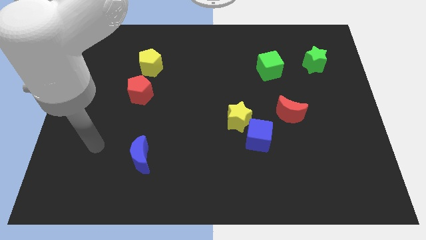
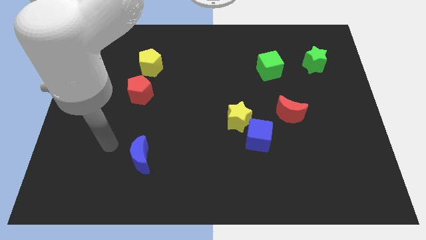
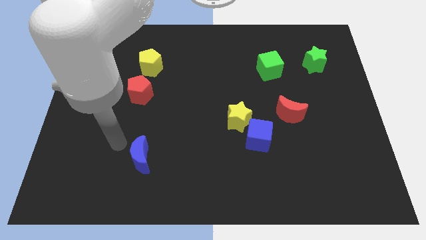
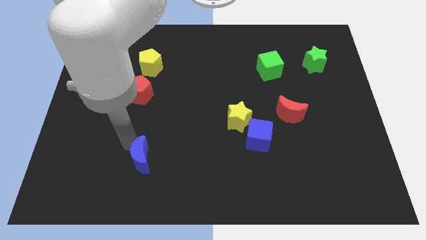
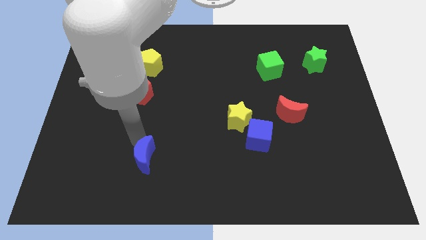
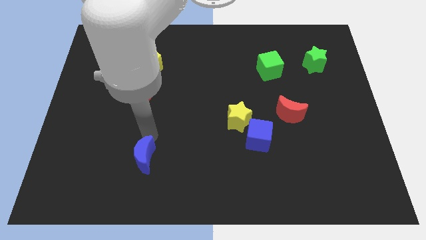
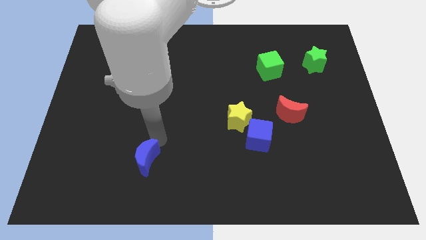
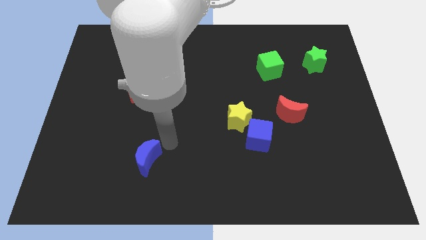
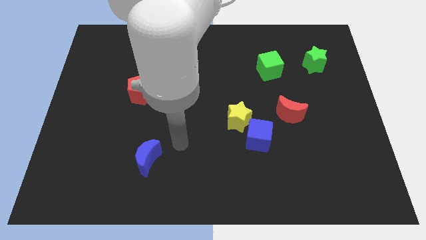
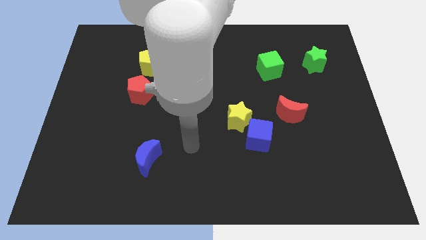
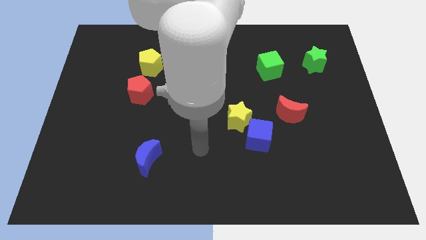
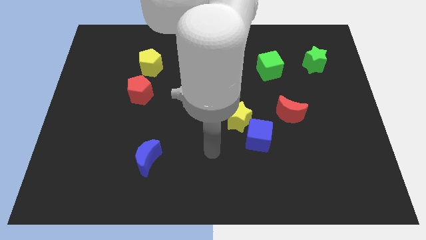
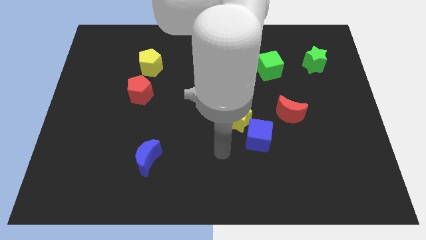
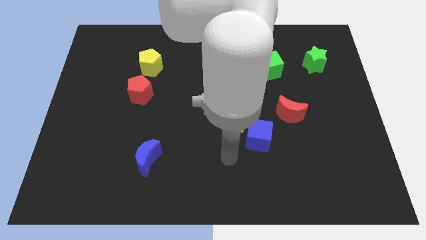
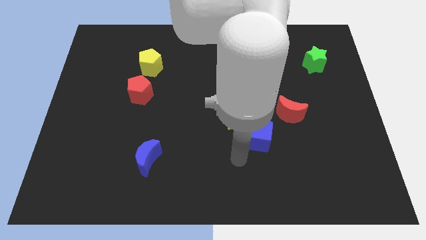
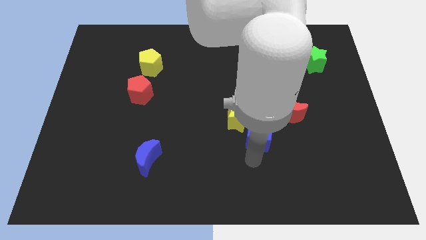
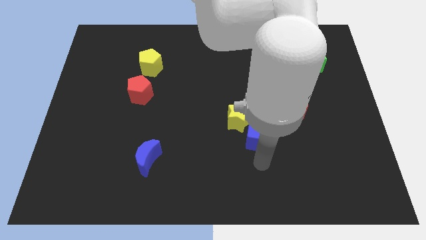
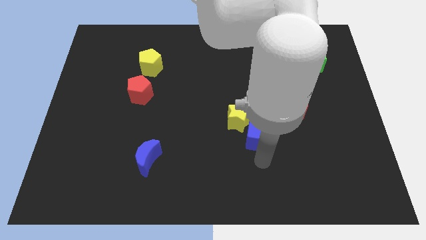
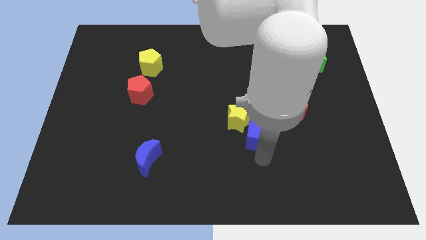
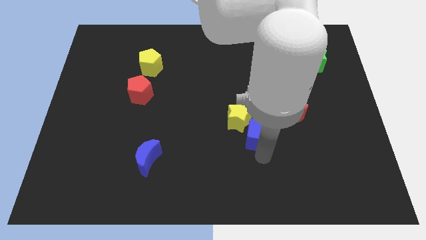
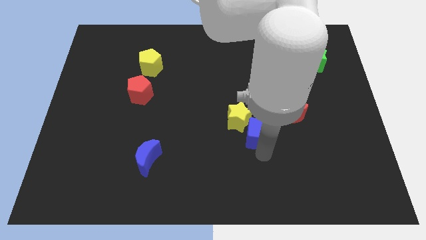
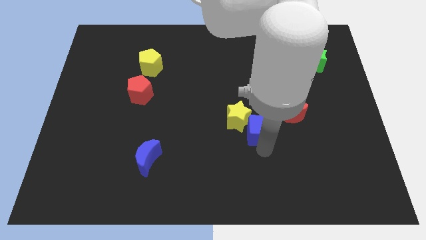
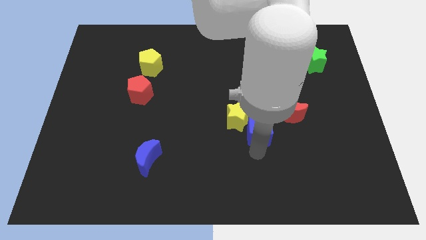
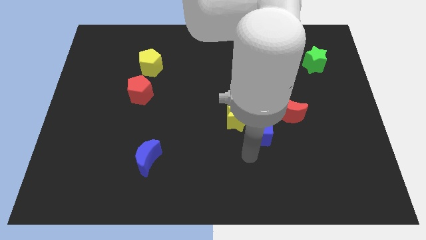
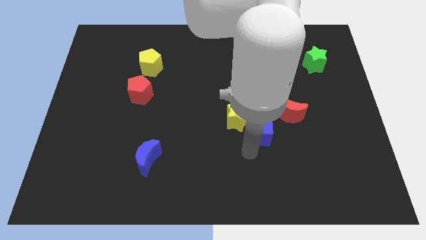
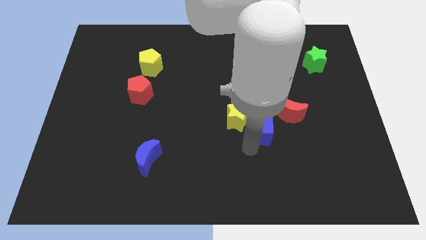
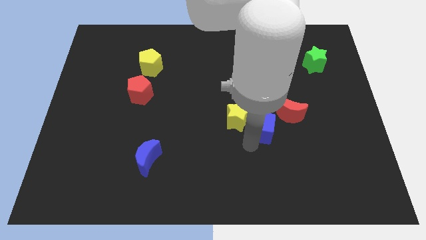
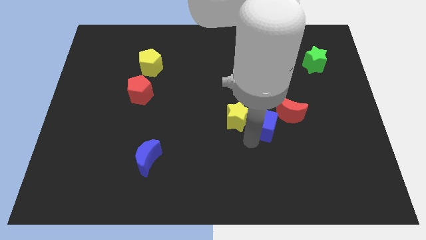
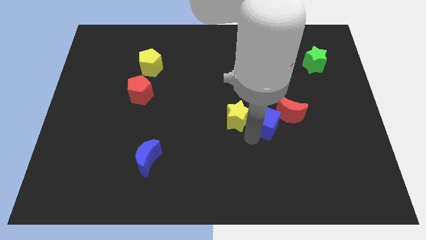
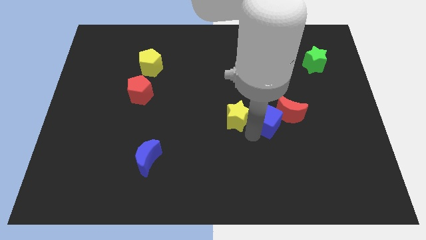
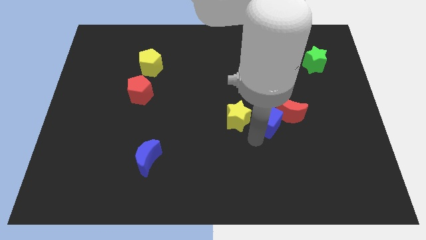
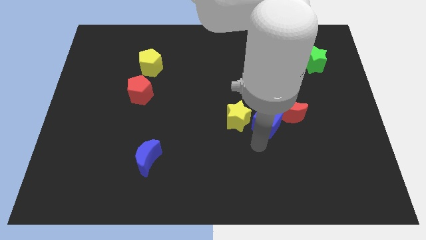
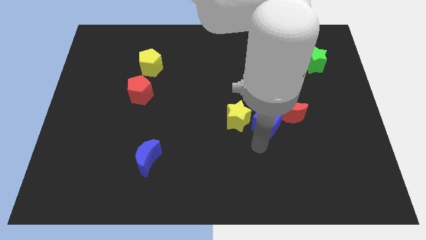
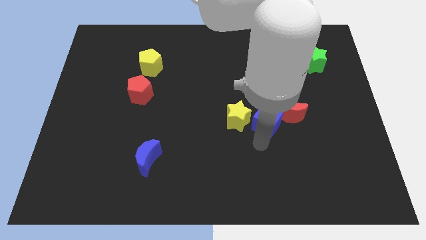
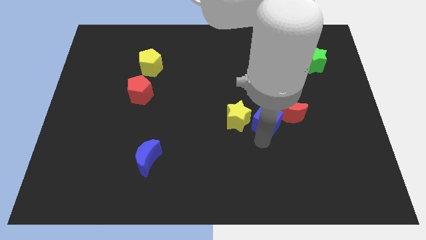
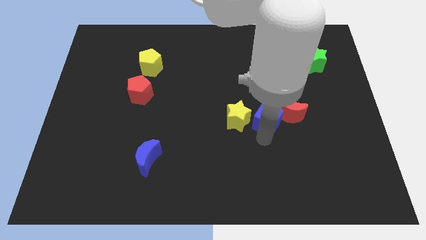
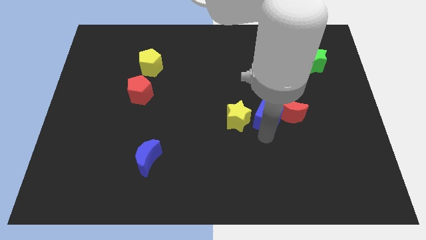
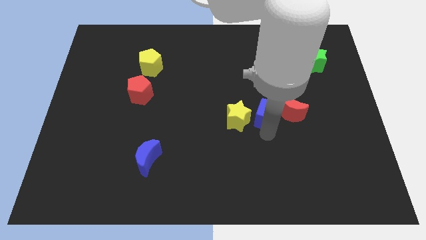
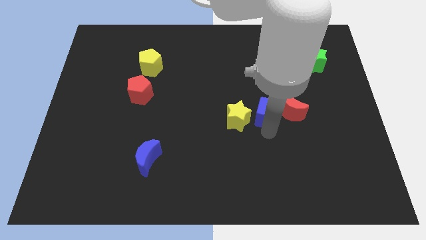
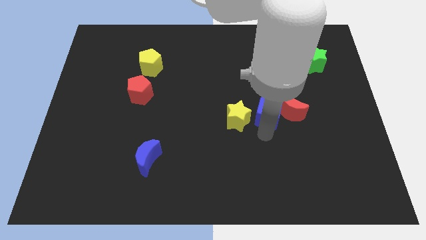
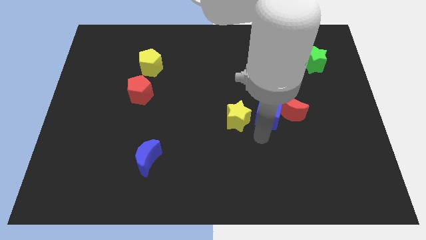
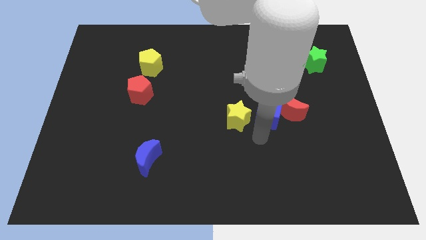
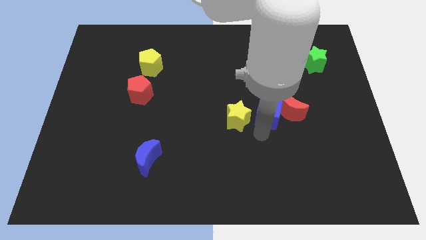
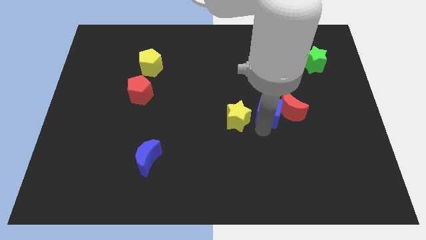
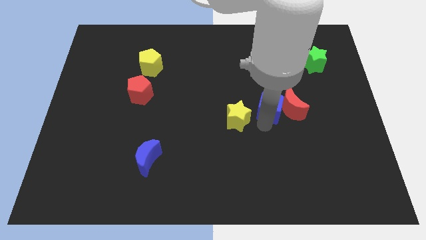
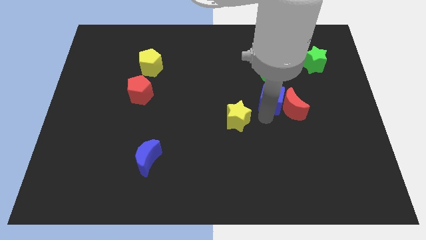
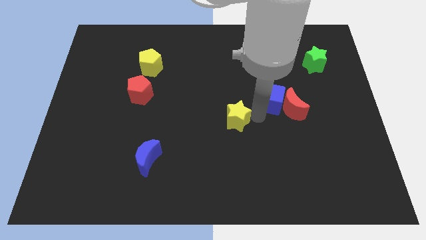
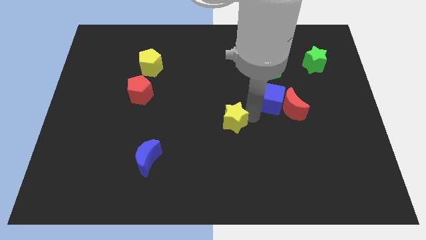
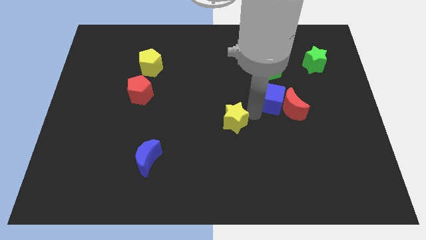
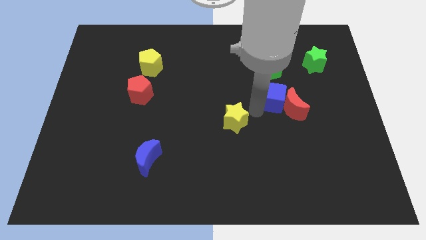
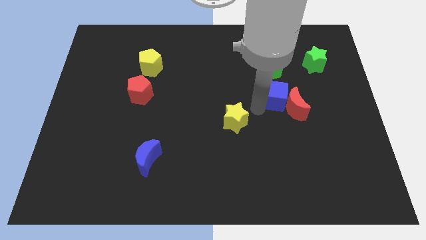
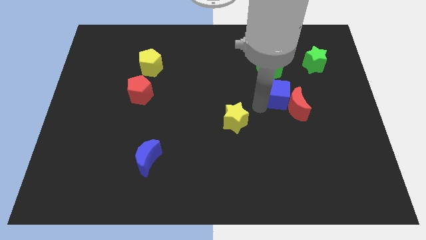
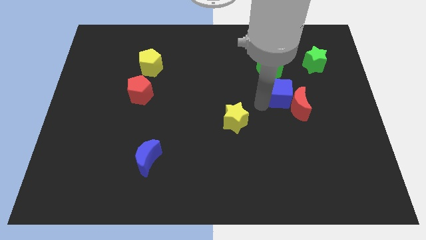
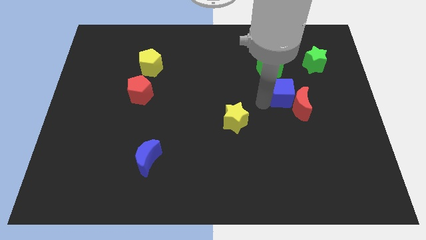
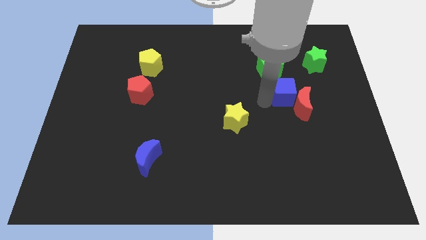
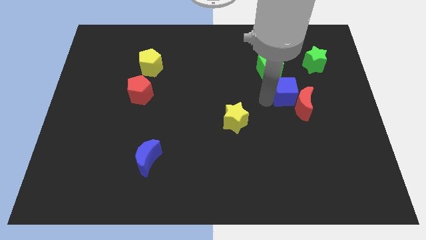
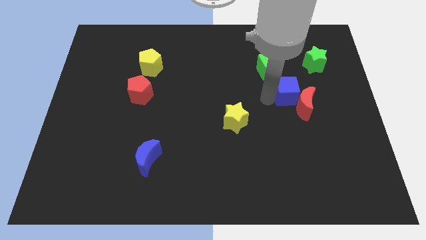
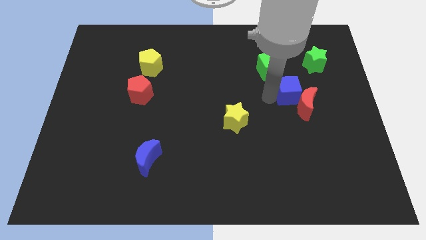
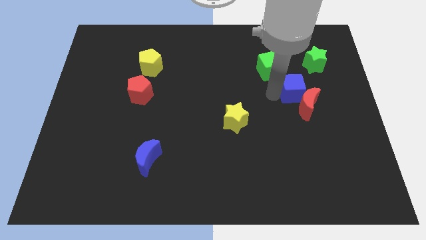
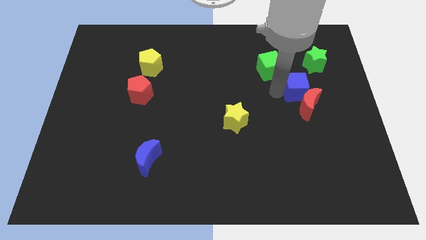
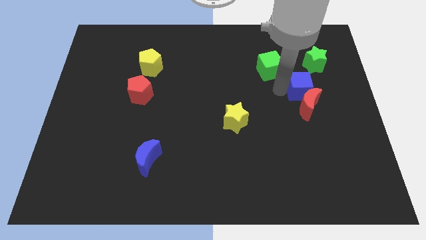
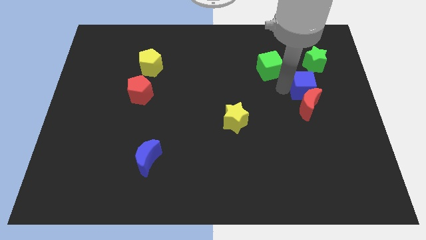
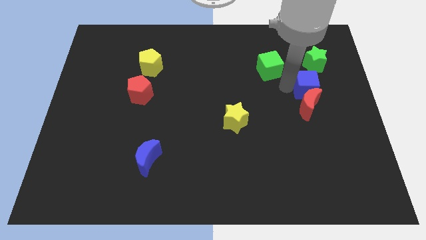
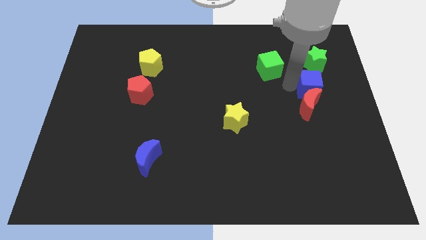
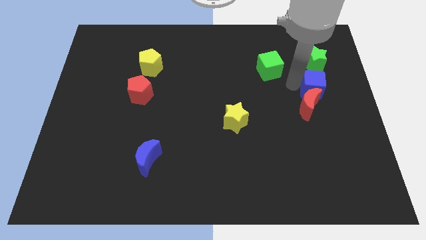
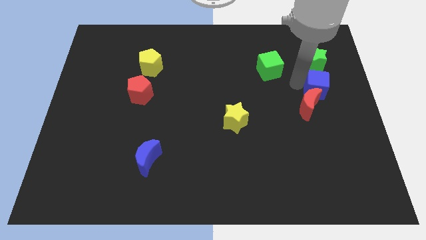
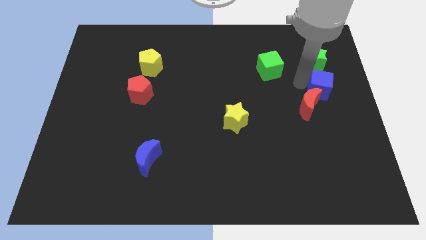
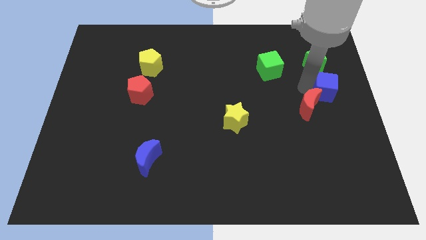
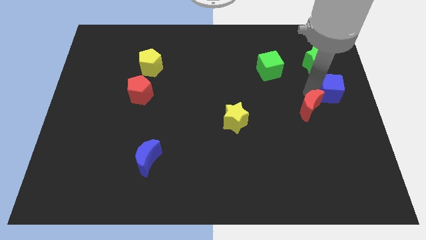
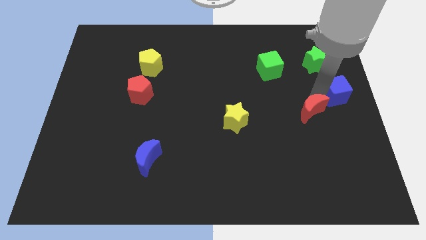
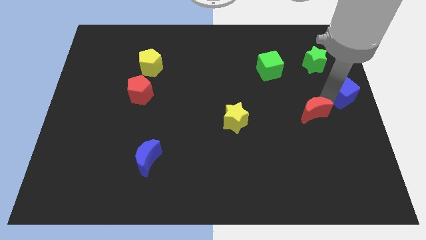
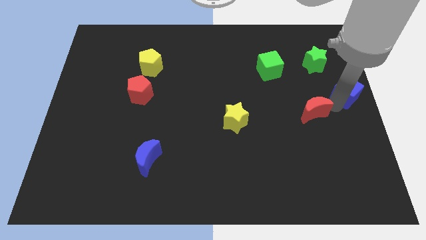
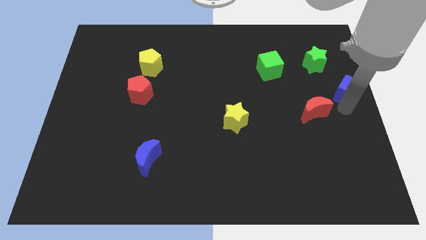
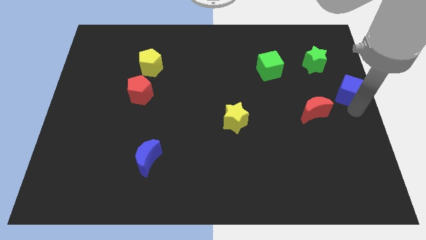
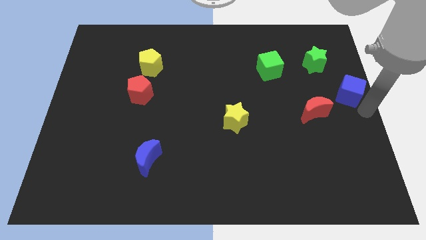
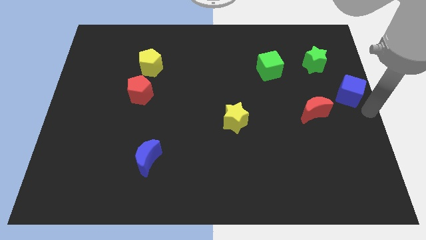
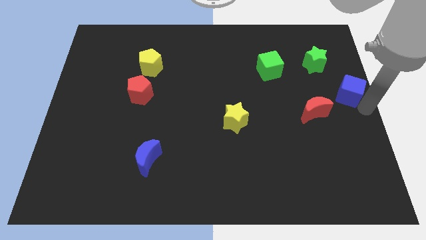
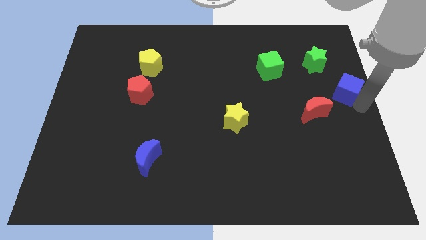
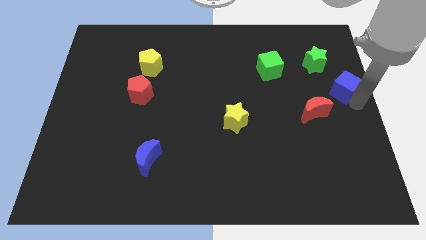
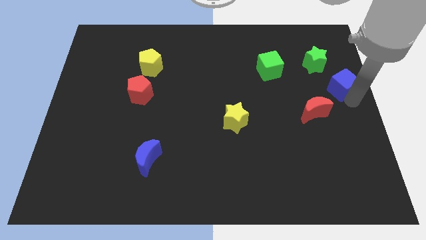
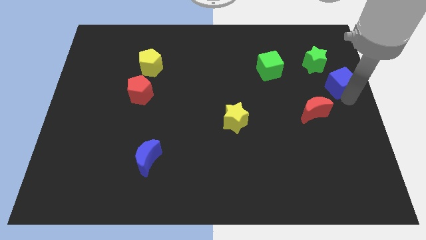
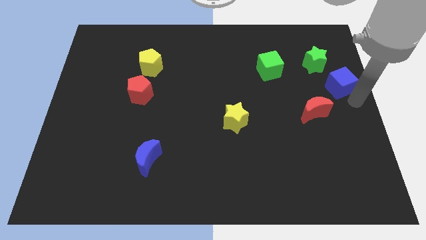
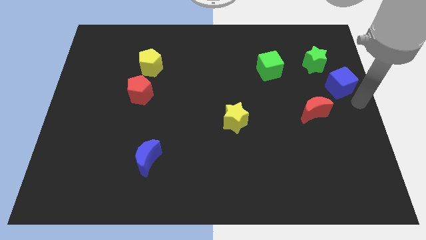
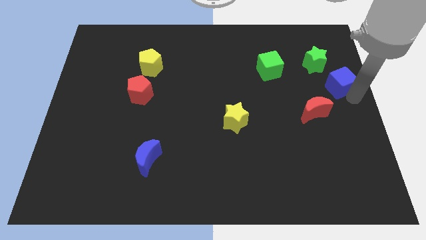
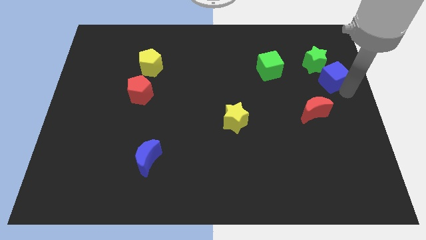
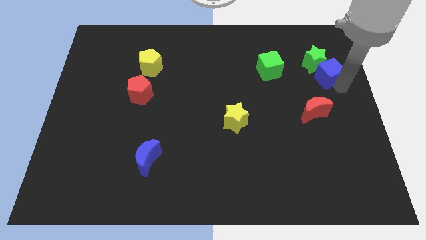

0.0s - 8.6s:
slide the blue cube next to the green star
